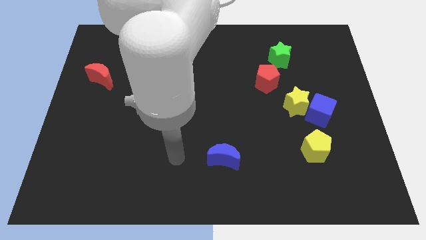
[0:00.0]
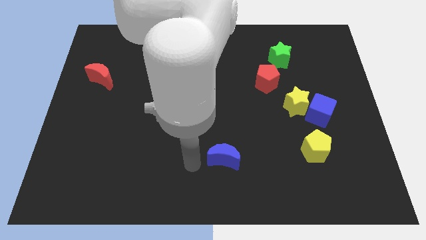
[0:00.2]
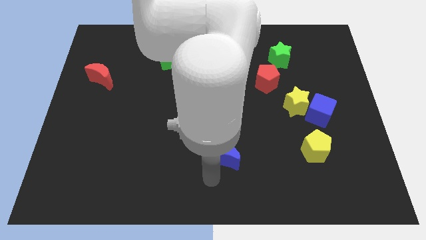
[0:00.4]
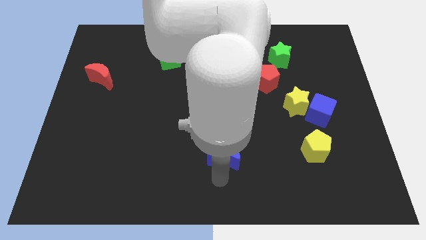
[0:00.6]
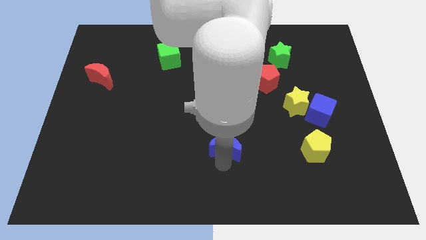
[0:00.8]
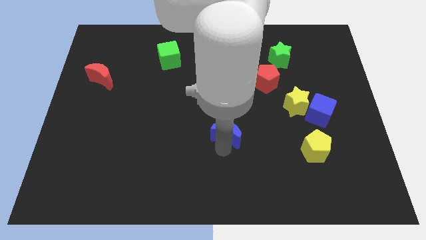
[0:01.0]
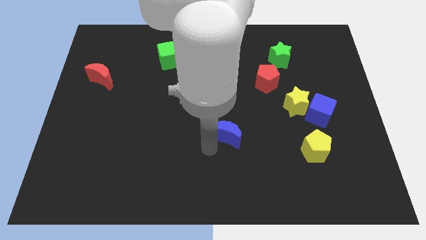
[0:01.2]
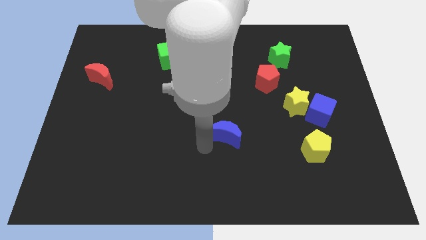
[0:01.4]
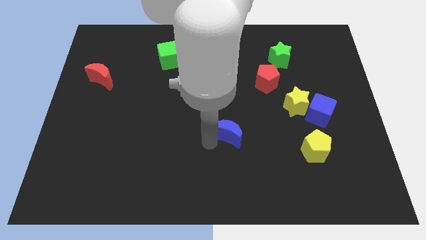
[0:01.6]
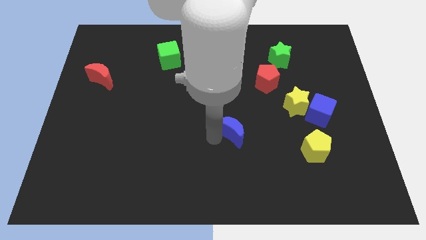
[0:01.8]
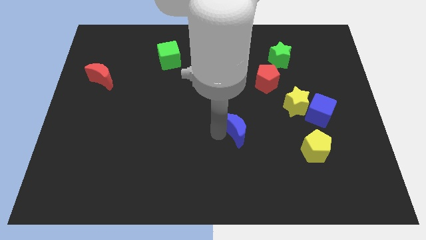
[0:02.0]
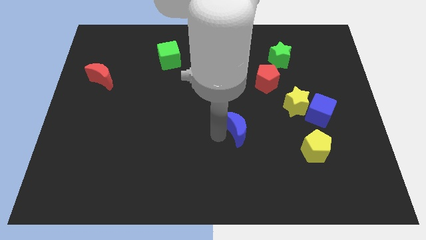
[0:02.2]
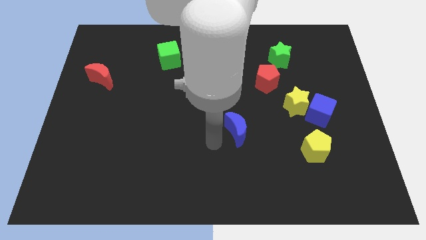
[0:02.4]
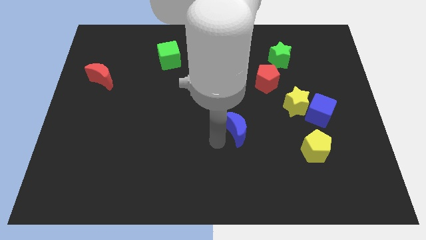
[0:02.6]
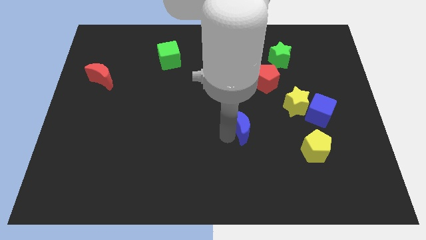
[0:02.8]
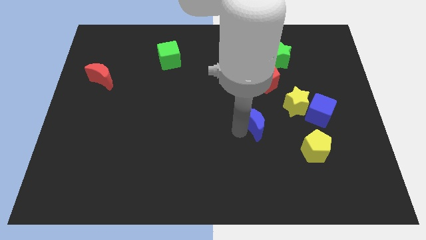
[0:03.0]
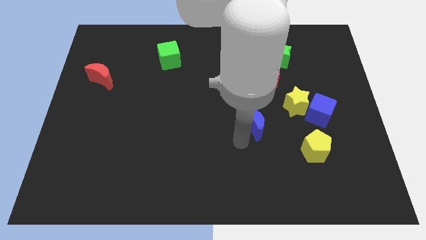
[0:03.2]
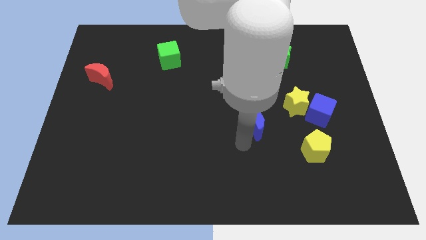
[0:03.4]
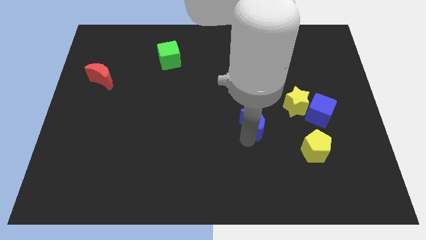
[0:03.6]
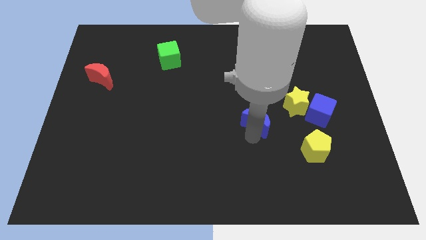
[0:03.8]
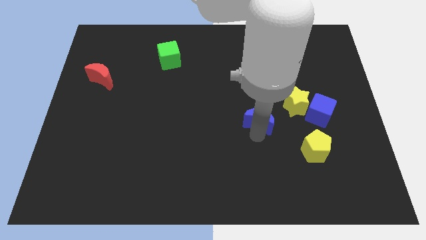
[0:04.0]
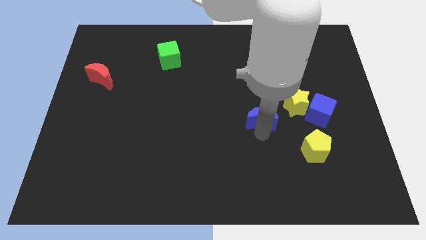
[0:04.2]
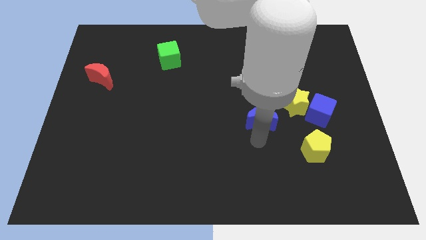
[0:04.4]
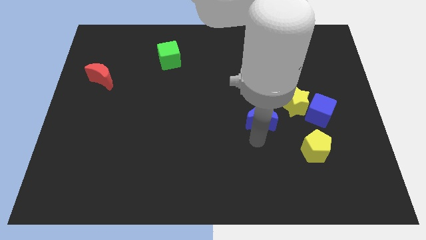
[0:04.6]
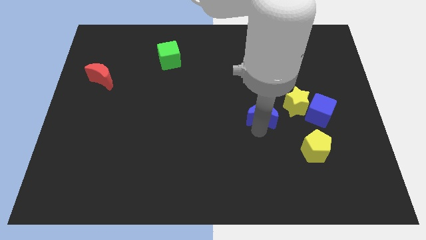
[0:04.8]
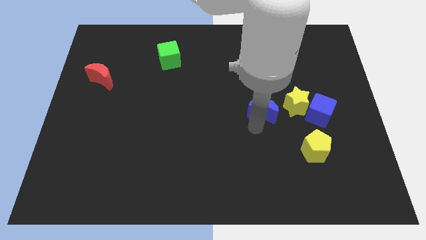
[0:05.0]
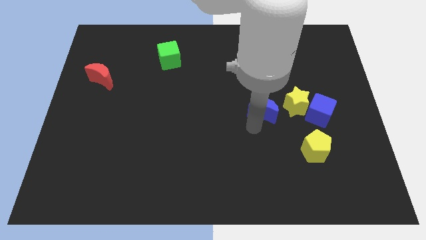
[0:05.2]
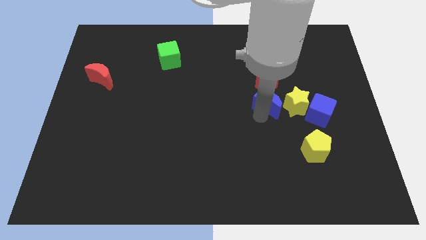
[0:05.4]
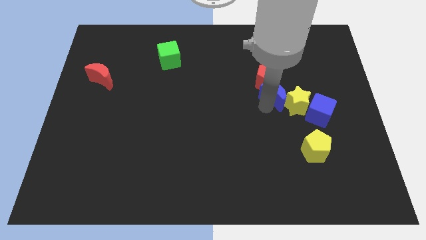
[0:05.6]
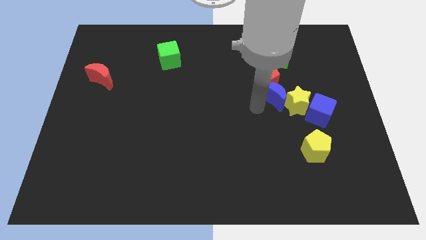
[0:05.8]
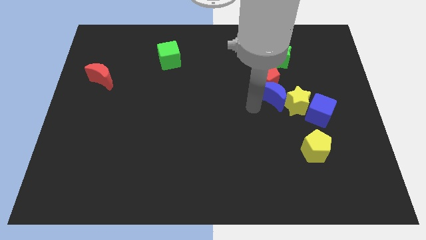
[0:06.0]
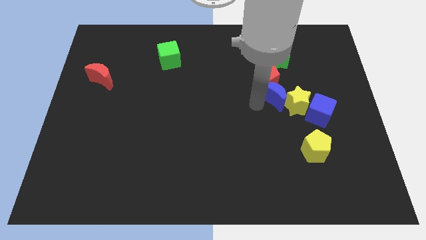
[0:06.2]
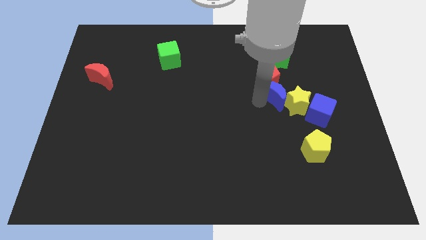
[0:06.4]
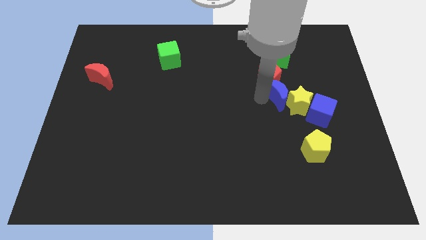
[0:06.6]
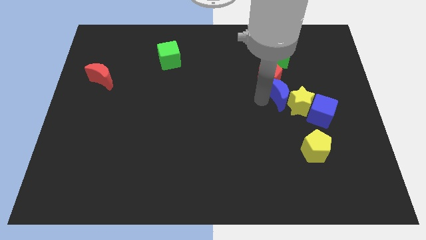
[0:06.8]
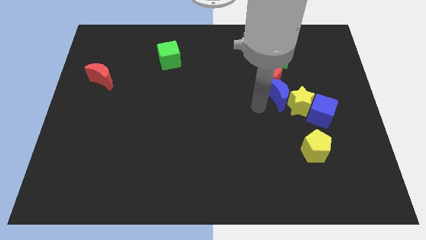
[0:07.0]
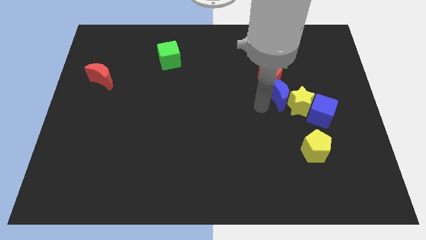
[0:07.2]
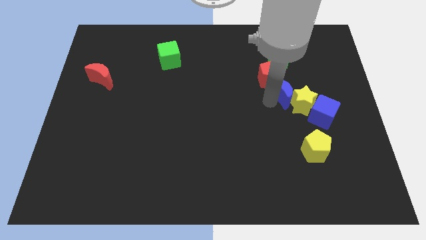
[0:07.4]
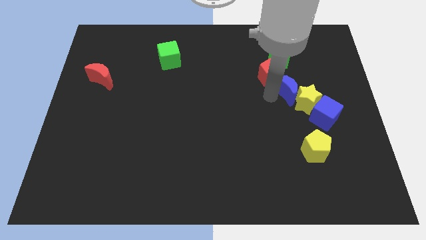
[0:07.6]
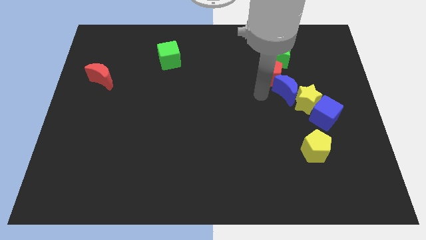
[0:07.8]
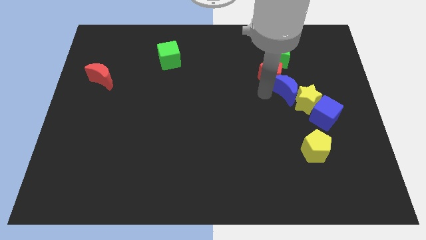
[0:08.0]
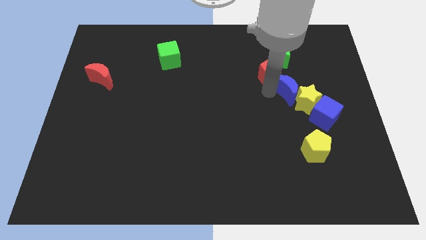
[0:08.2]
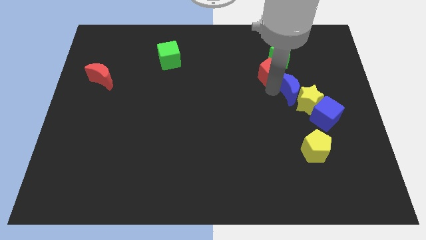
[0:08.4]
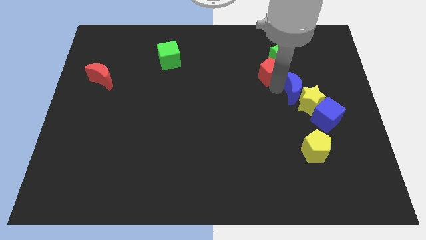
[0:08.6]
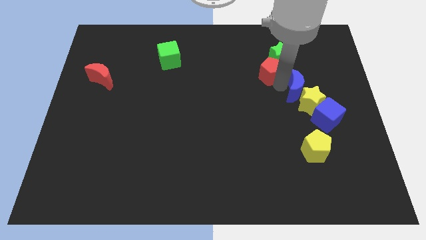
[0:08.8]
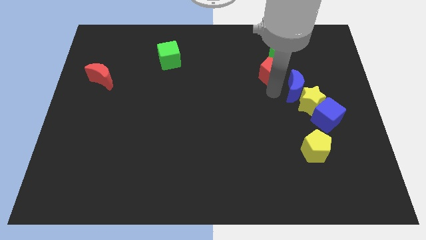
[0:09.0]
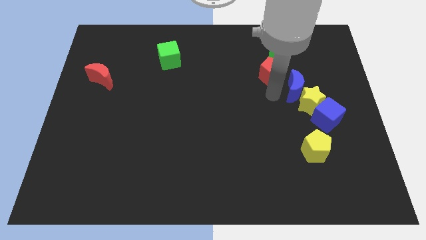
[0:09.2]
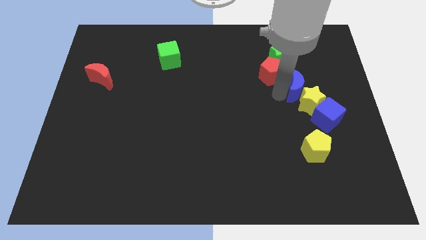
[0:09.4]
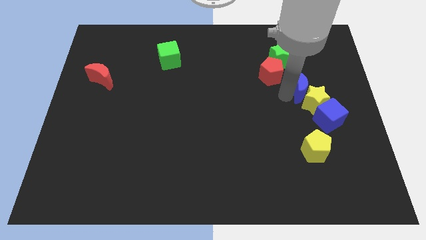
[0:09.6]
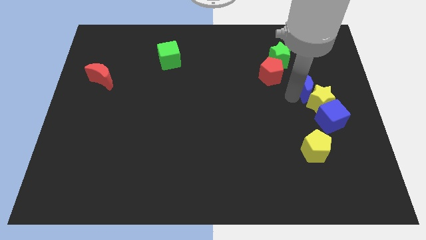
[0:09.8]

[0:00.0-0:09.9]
push the blue moon above the blue cube

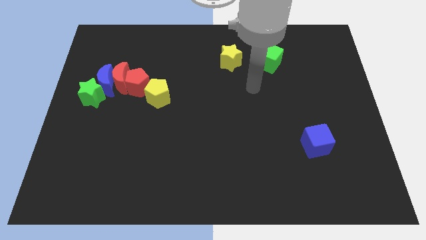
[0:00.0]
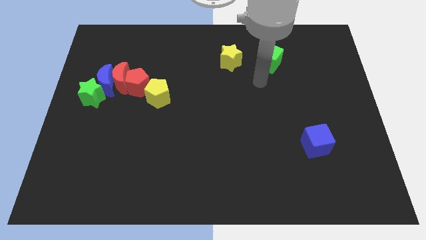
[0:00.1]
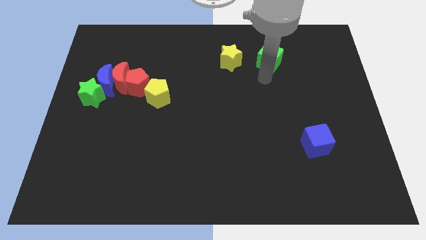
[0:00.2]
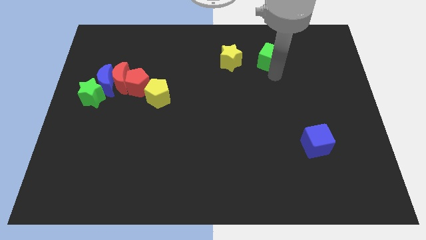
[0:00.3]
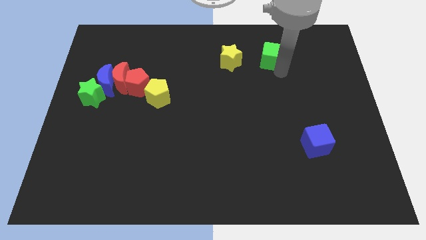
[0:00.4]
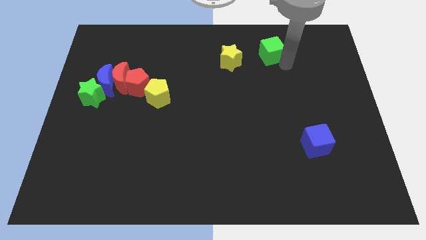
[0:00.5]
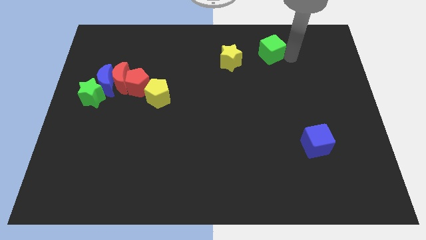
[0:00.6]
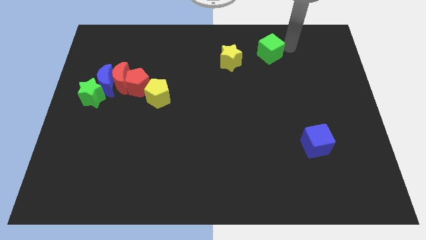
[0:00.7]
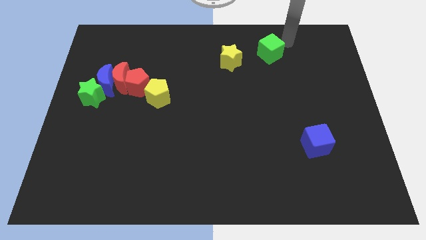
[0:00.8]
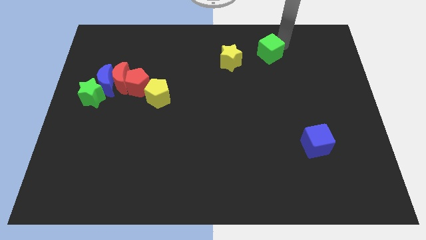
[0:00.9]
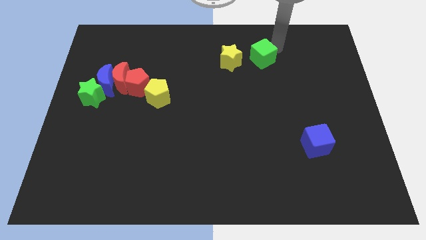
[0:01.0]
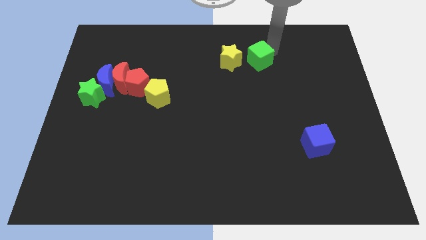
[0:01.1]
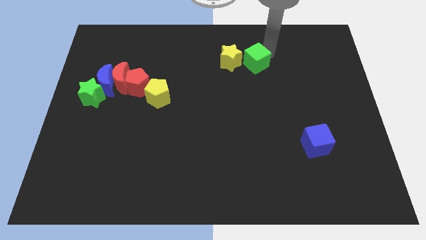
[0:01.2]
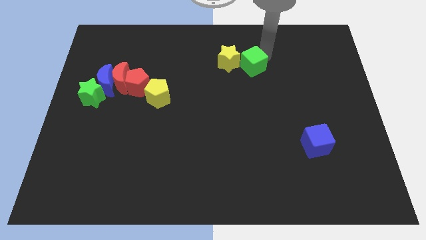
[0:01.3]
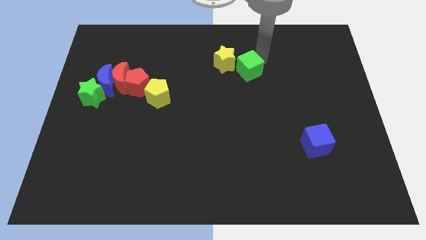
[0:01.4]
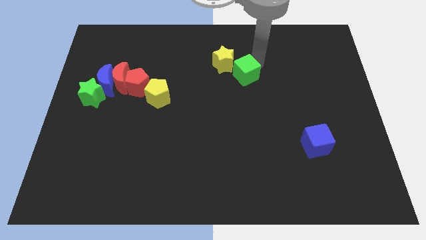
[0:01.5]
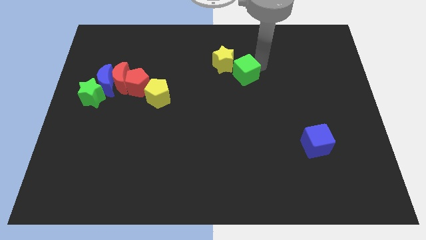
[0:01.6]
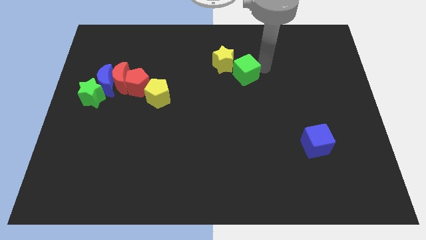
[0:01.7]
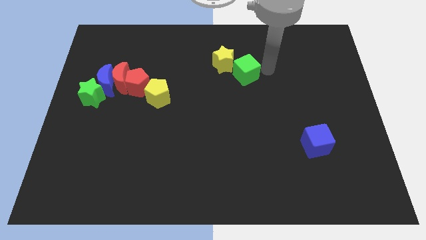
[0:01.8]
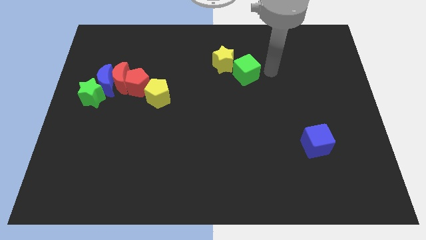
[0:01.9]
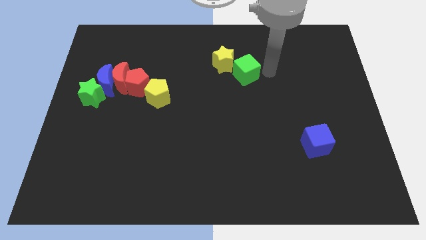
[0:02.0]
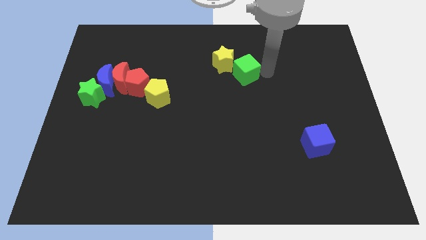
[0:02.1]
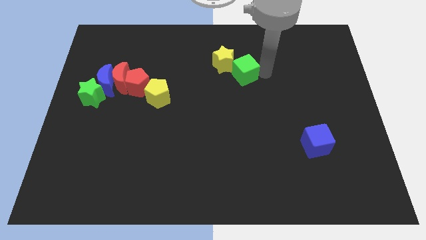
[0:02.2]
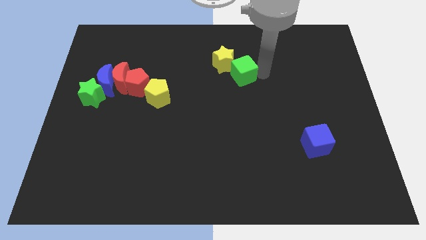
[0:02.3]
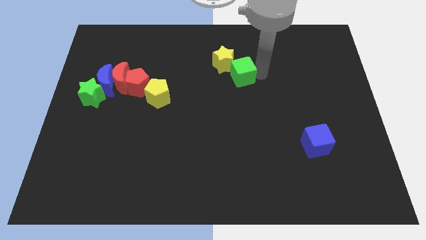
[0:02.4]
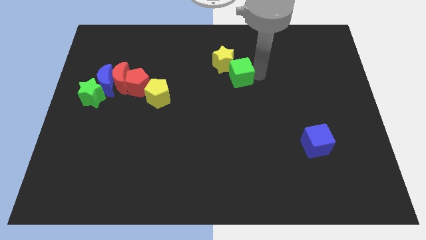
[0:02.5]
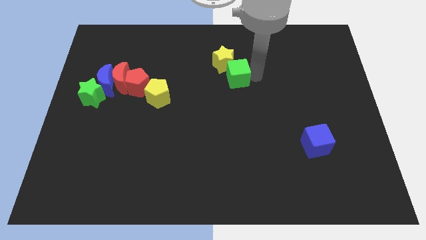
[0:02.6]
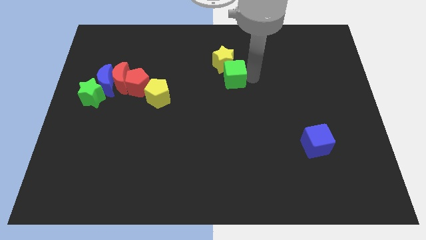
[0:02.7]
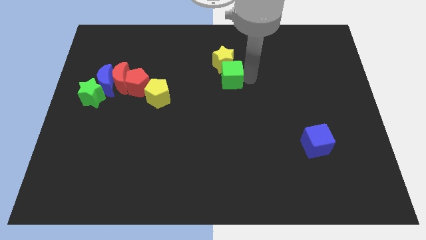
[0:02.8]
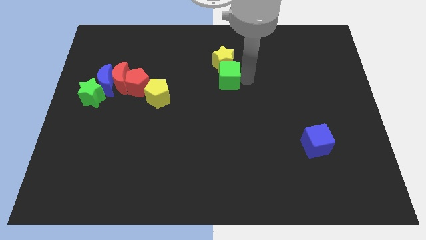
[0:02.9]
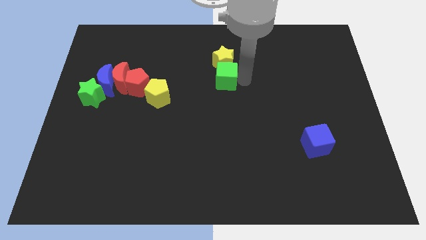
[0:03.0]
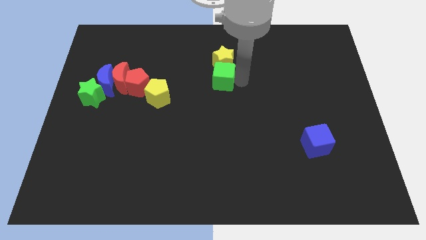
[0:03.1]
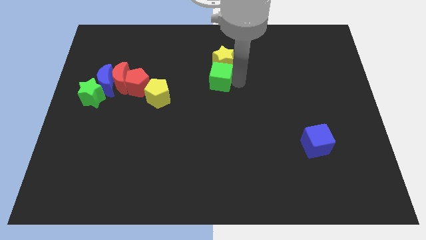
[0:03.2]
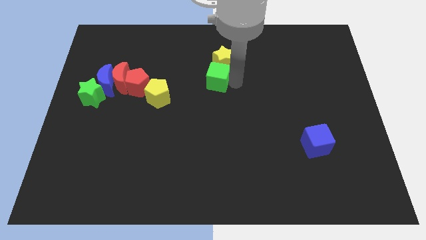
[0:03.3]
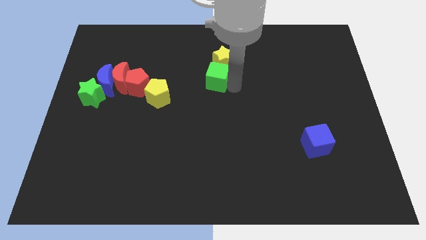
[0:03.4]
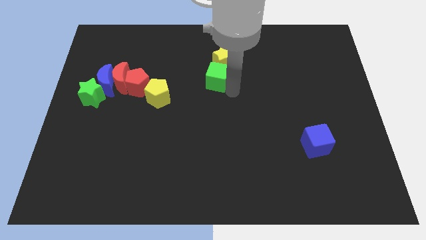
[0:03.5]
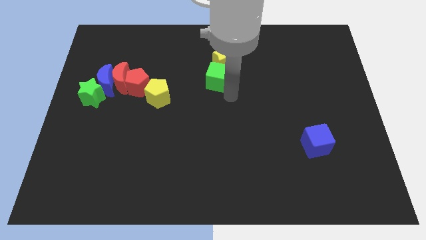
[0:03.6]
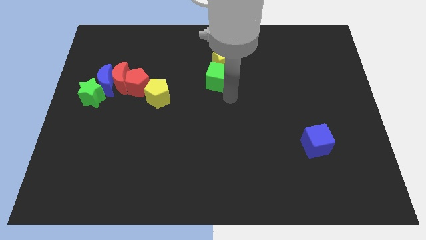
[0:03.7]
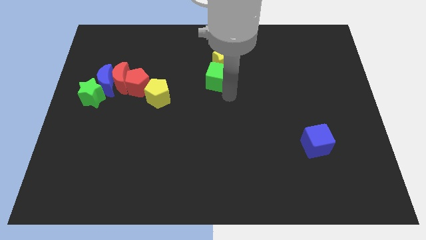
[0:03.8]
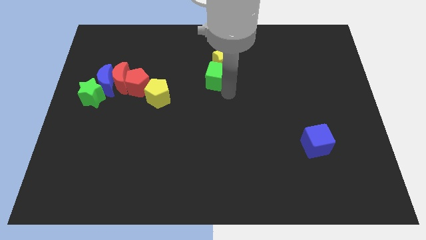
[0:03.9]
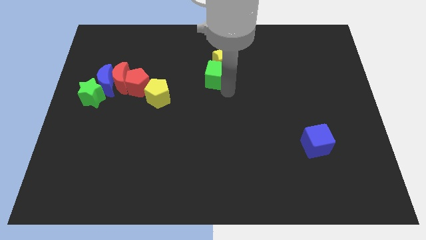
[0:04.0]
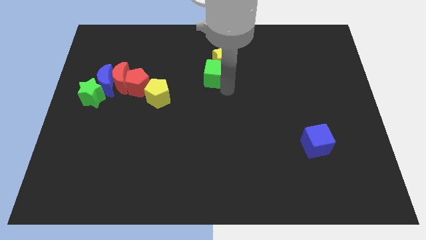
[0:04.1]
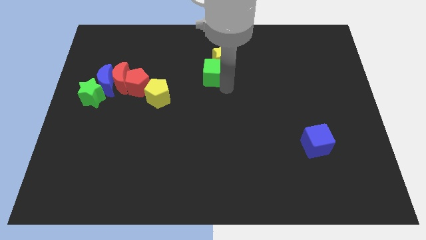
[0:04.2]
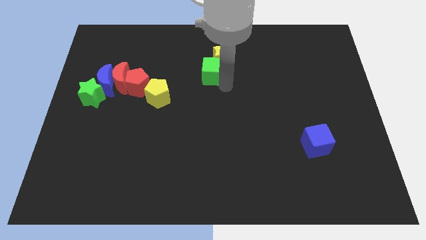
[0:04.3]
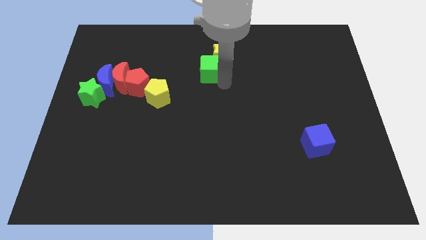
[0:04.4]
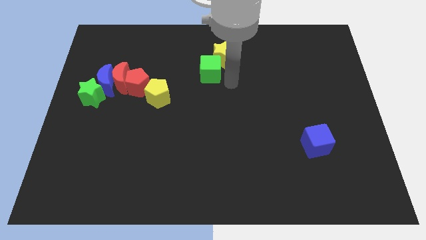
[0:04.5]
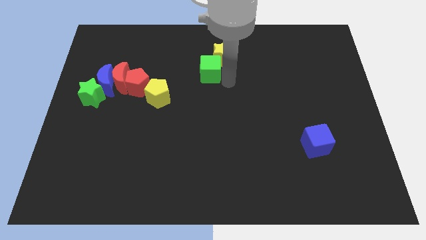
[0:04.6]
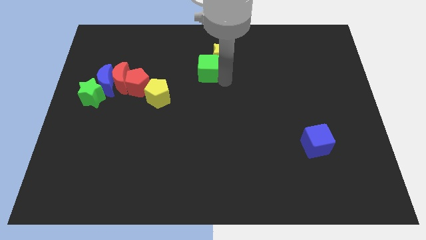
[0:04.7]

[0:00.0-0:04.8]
put the green cube to the left of the yellow star
